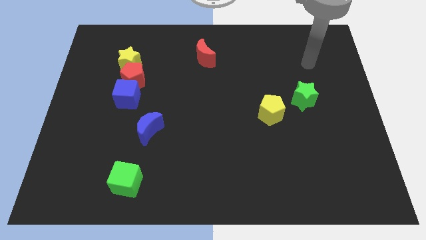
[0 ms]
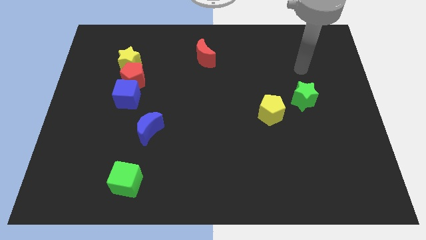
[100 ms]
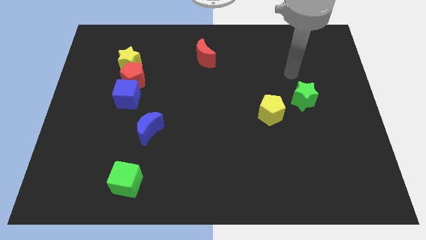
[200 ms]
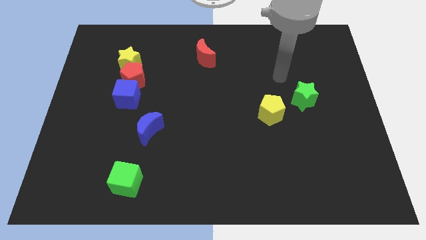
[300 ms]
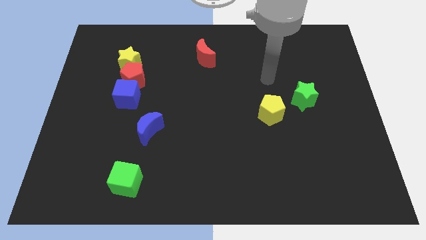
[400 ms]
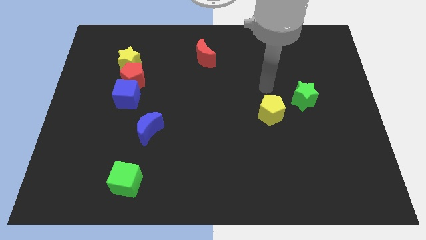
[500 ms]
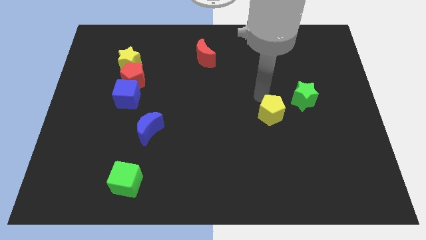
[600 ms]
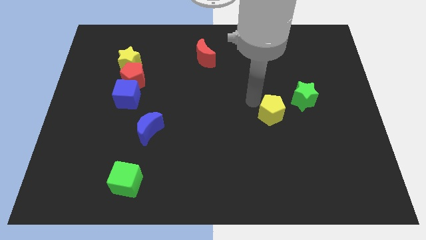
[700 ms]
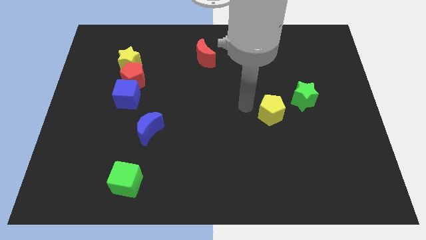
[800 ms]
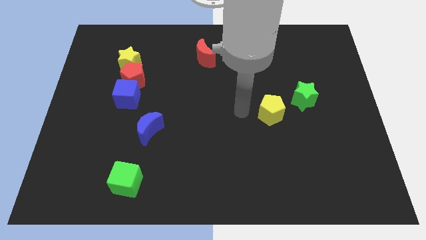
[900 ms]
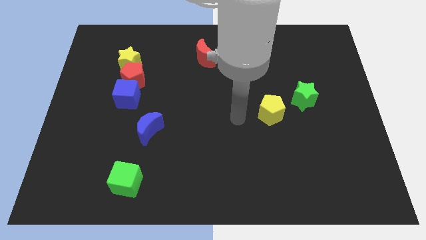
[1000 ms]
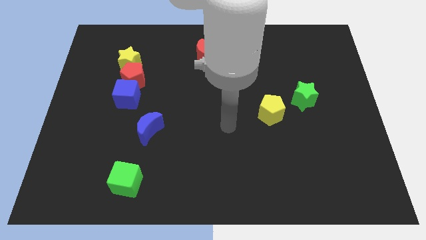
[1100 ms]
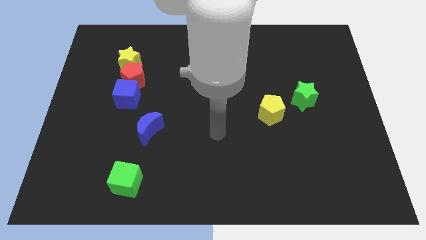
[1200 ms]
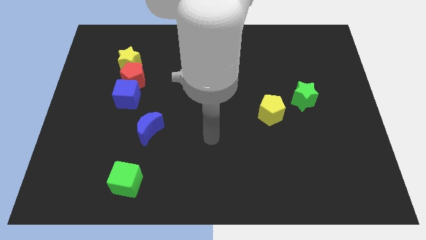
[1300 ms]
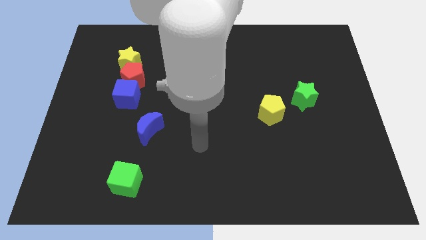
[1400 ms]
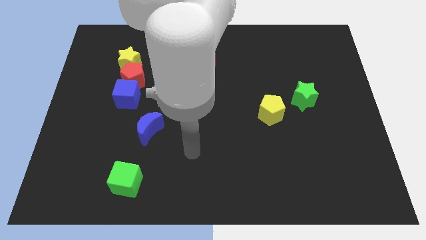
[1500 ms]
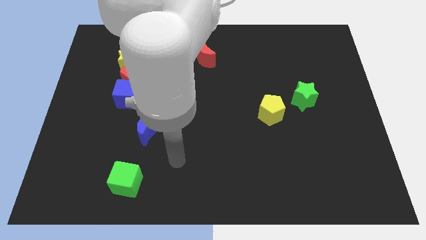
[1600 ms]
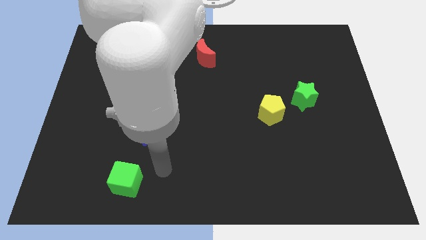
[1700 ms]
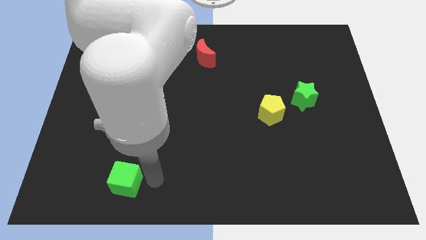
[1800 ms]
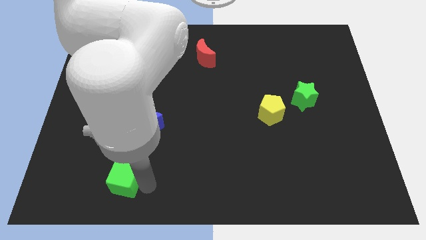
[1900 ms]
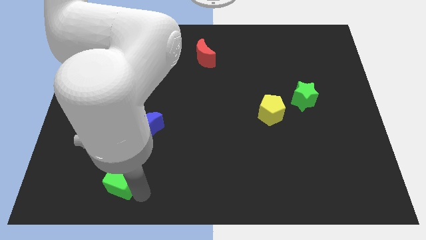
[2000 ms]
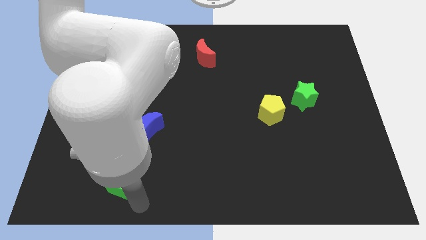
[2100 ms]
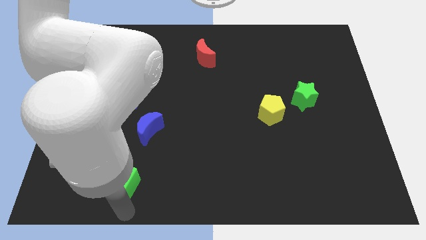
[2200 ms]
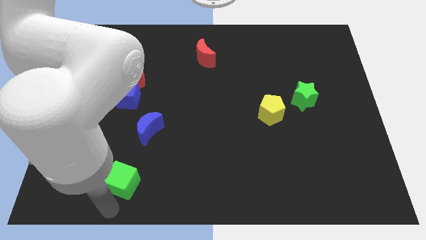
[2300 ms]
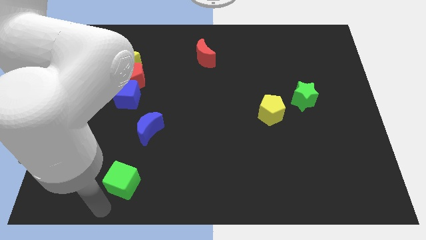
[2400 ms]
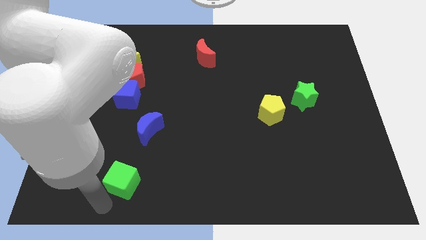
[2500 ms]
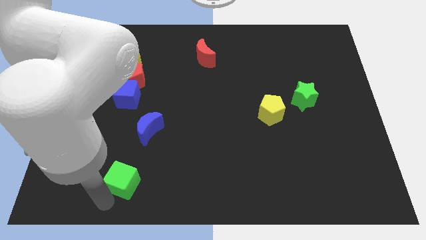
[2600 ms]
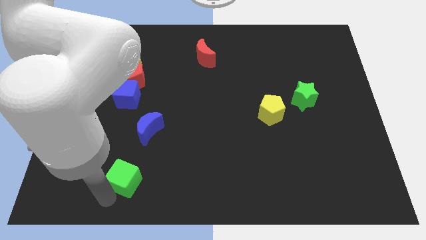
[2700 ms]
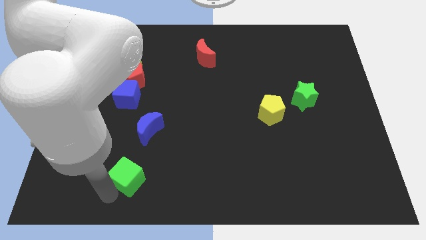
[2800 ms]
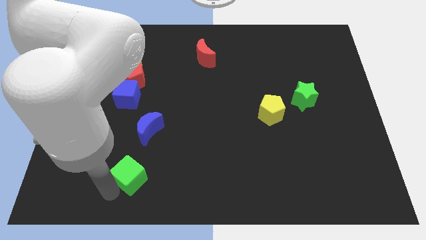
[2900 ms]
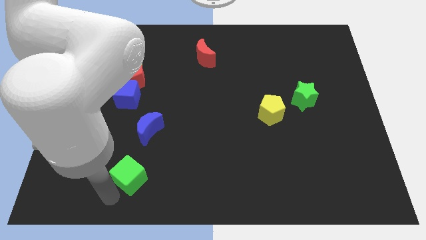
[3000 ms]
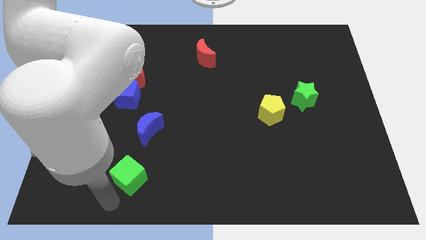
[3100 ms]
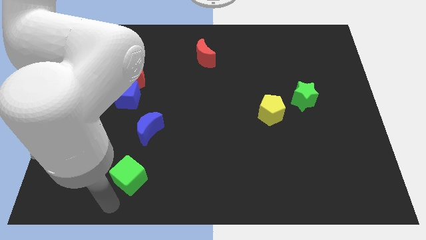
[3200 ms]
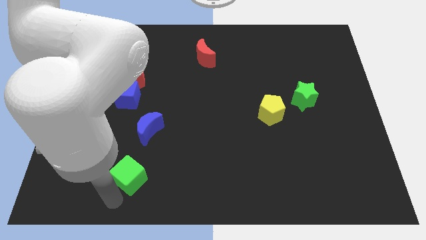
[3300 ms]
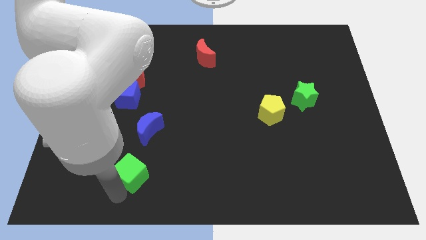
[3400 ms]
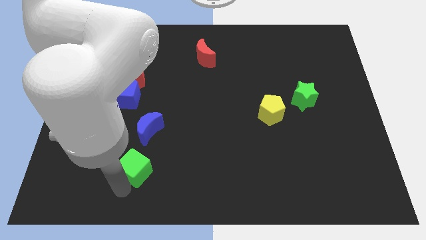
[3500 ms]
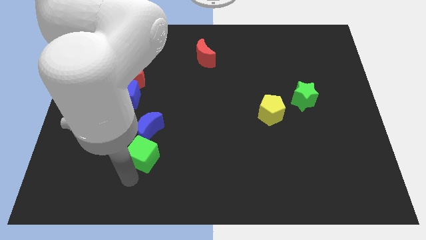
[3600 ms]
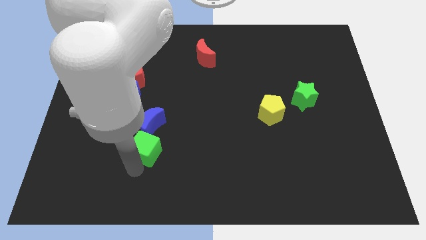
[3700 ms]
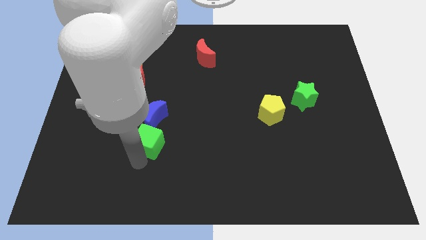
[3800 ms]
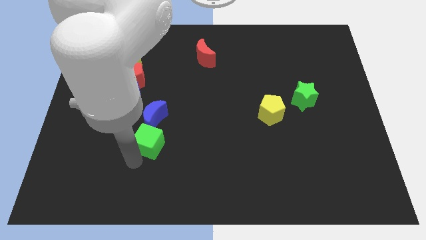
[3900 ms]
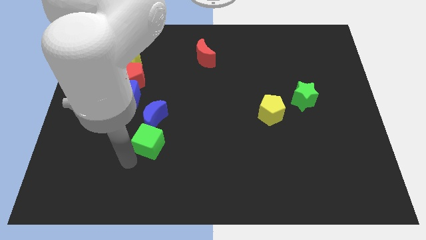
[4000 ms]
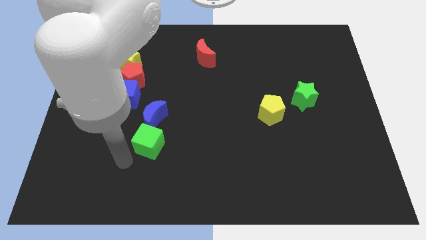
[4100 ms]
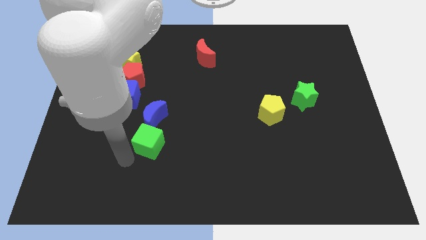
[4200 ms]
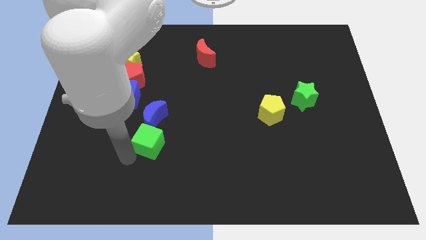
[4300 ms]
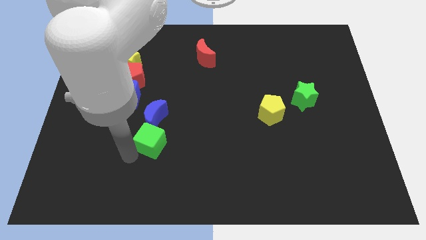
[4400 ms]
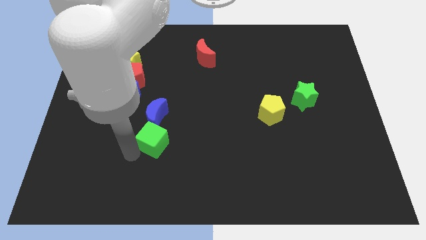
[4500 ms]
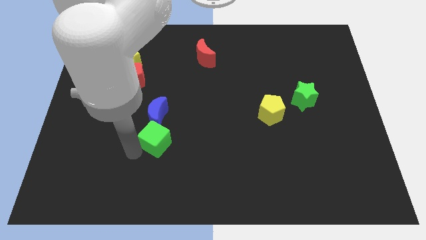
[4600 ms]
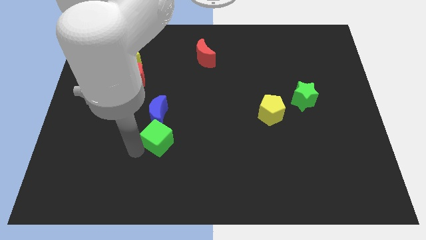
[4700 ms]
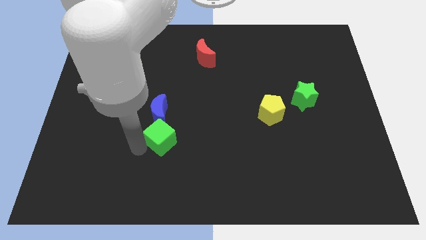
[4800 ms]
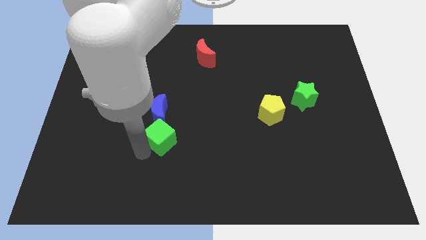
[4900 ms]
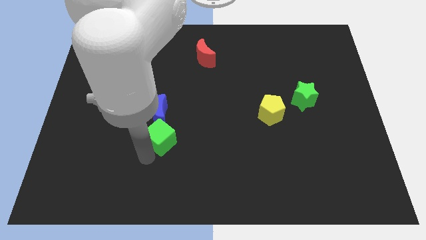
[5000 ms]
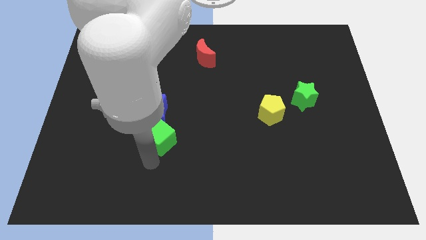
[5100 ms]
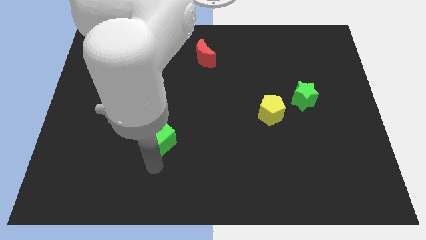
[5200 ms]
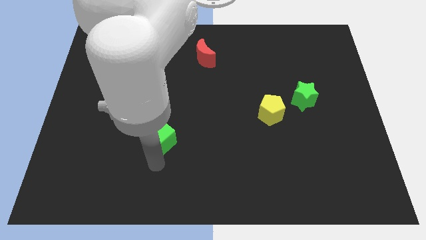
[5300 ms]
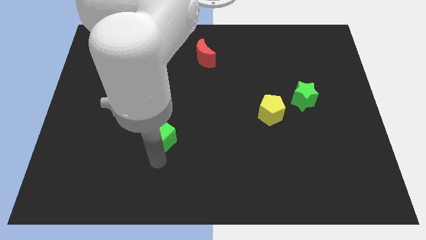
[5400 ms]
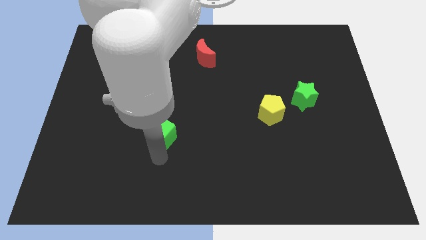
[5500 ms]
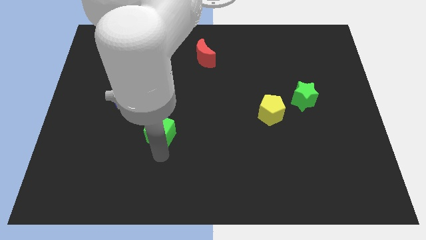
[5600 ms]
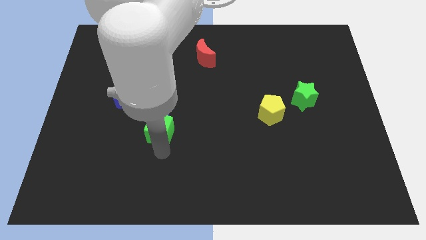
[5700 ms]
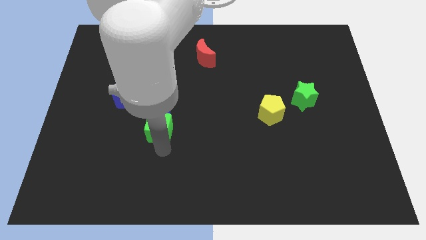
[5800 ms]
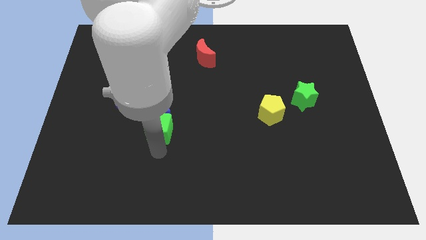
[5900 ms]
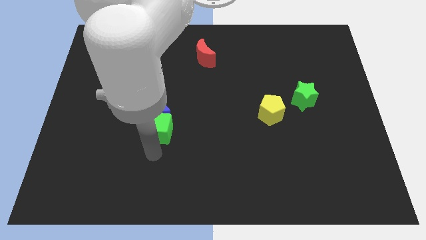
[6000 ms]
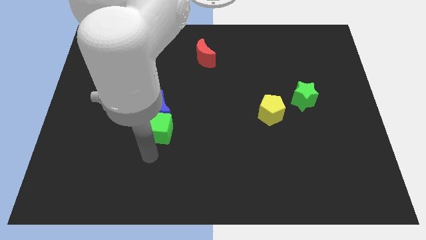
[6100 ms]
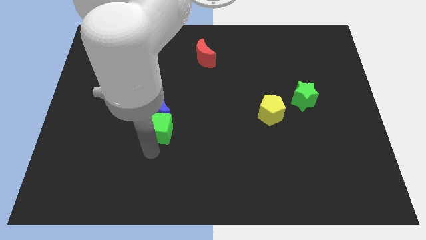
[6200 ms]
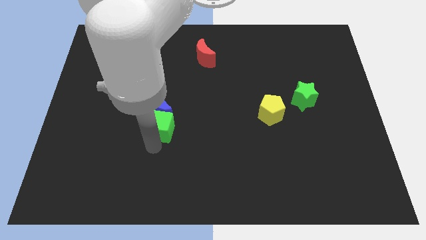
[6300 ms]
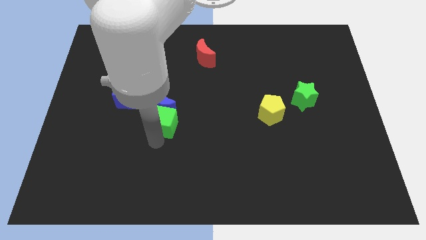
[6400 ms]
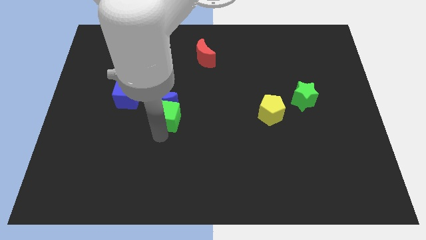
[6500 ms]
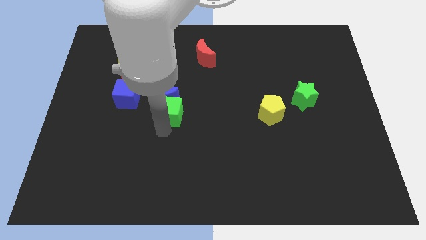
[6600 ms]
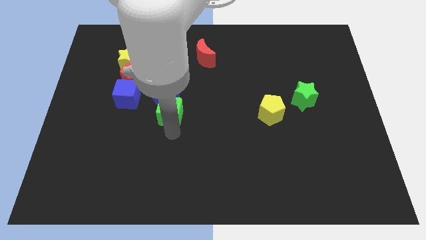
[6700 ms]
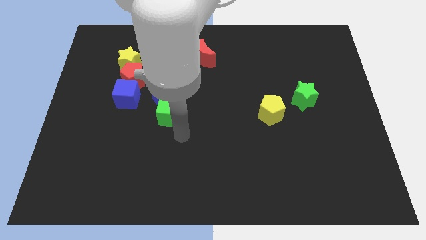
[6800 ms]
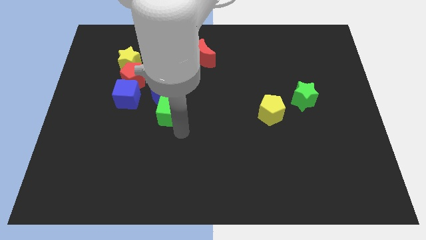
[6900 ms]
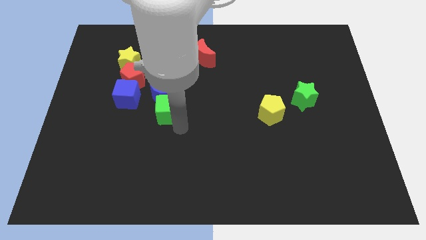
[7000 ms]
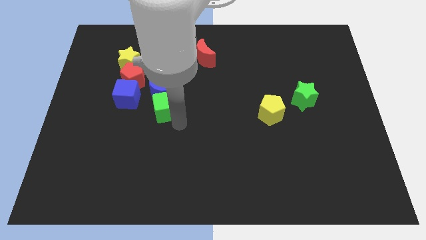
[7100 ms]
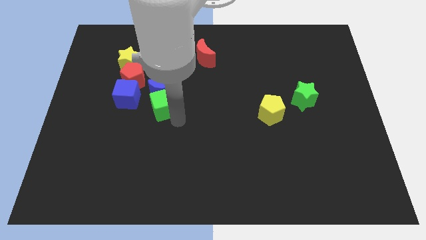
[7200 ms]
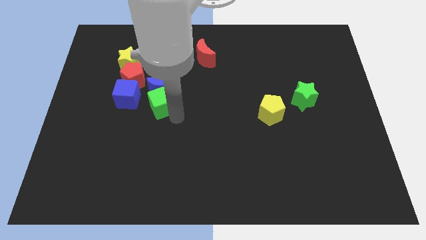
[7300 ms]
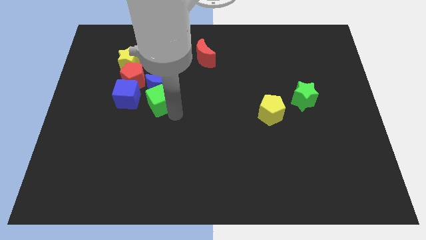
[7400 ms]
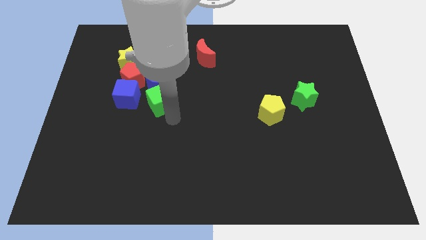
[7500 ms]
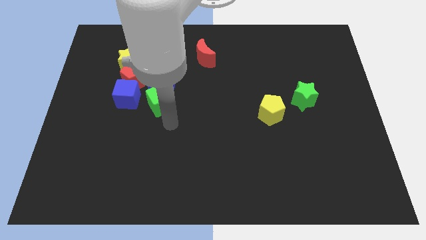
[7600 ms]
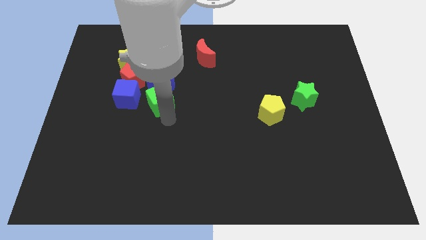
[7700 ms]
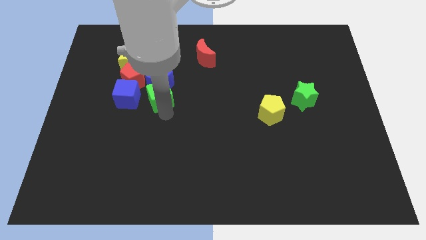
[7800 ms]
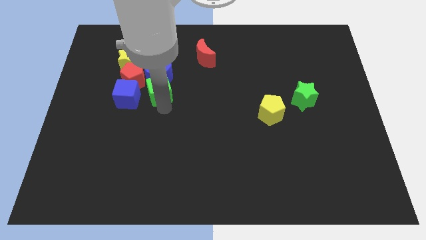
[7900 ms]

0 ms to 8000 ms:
push the green cube to the top right of the blue cube
